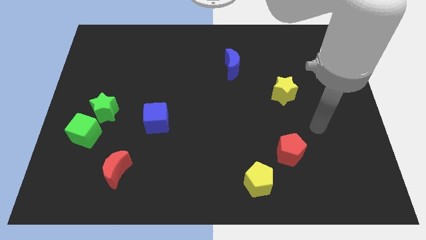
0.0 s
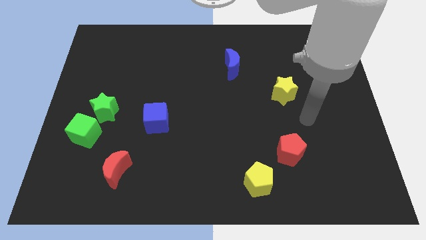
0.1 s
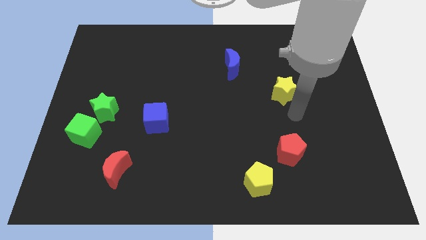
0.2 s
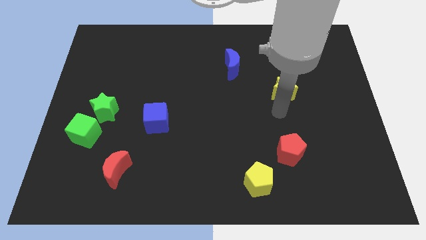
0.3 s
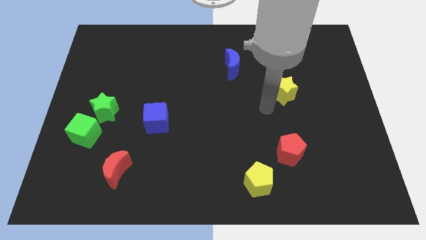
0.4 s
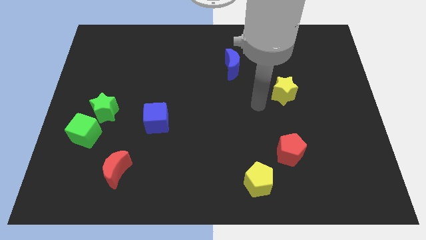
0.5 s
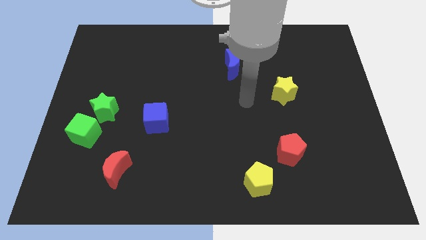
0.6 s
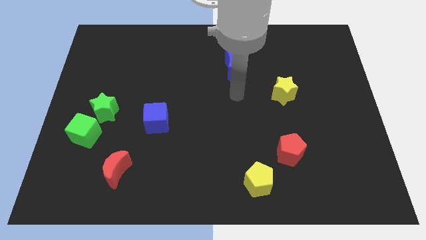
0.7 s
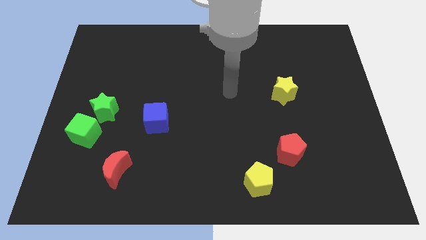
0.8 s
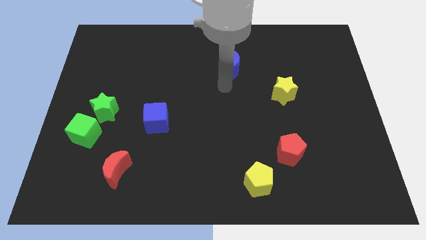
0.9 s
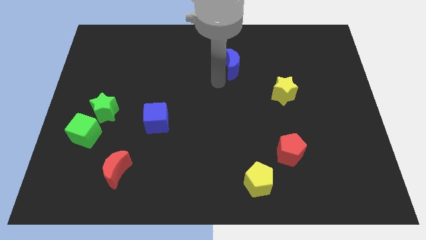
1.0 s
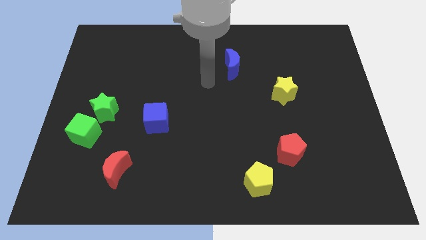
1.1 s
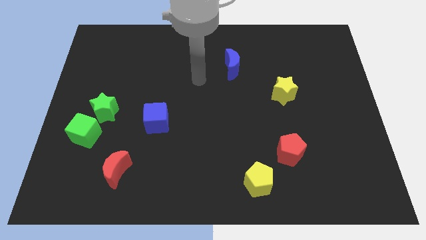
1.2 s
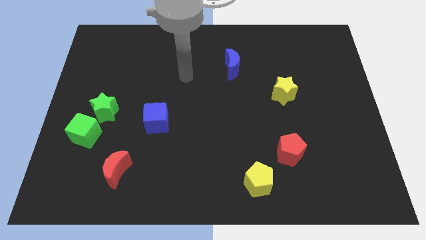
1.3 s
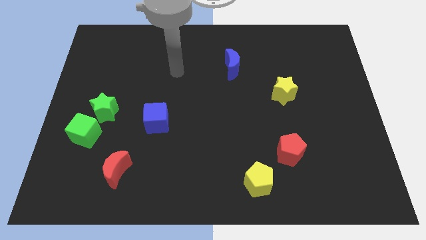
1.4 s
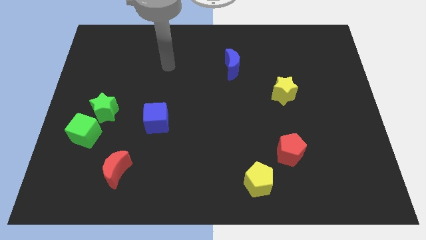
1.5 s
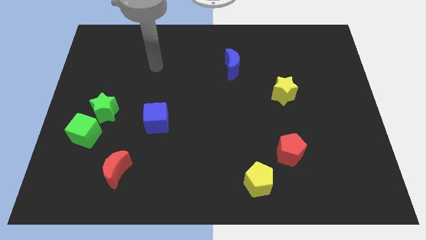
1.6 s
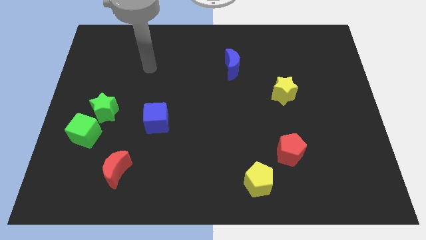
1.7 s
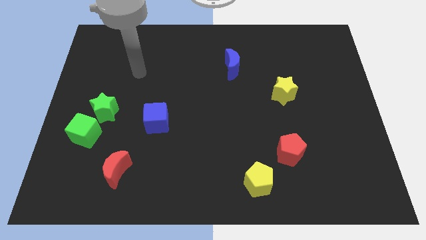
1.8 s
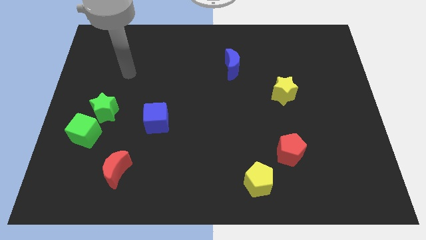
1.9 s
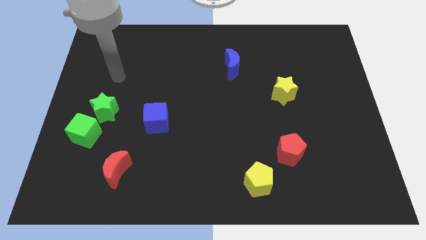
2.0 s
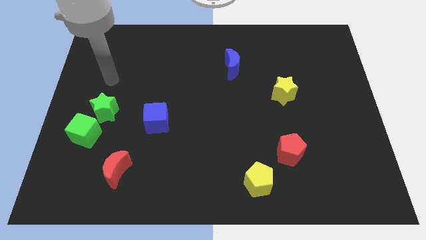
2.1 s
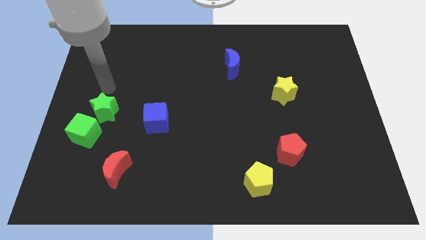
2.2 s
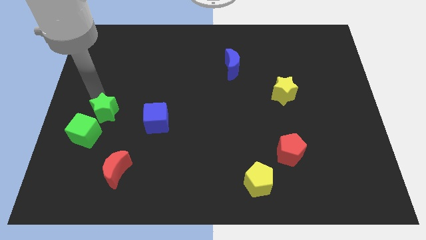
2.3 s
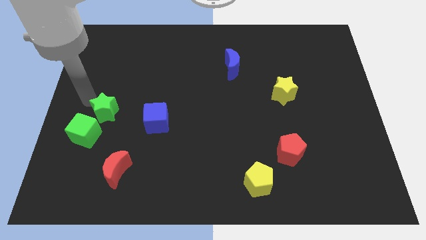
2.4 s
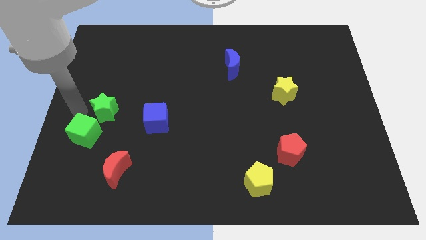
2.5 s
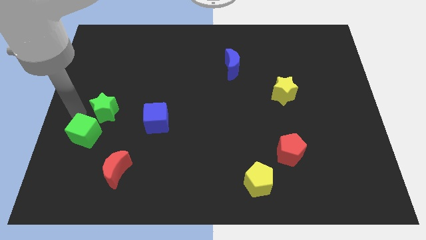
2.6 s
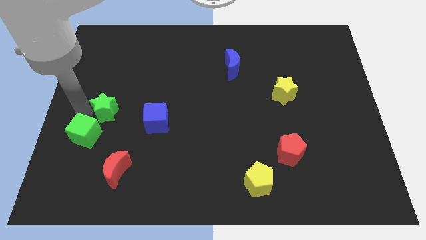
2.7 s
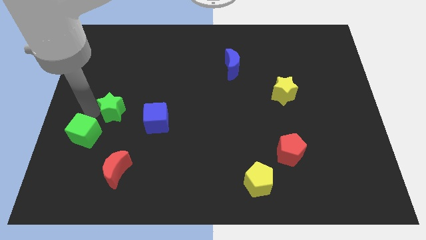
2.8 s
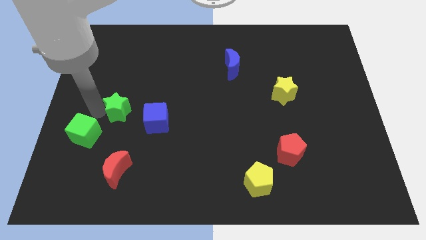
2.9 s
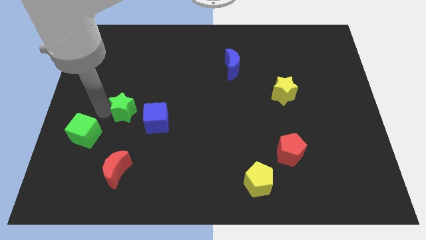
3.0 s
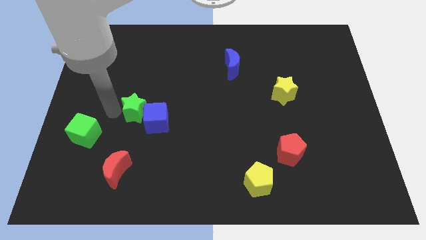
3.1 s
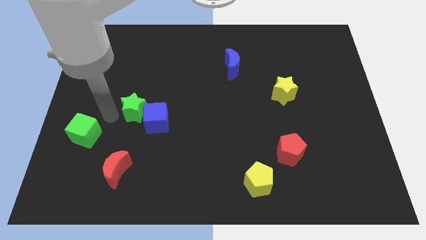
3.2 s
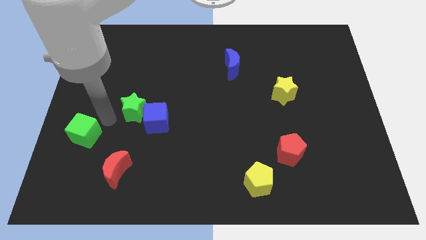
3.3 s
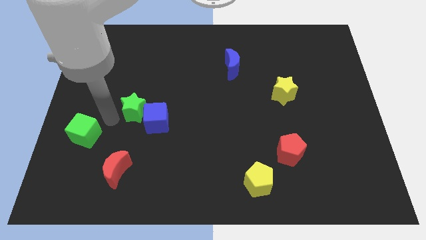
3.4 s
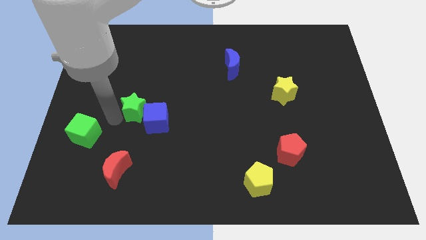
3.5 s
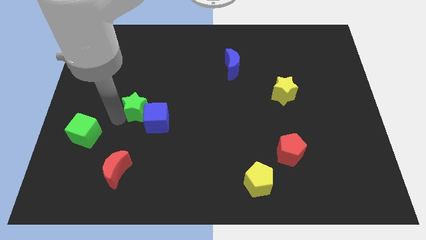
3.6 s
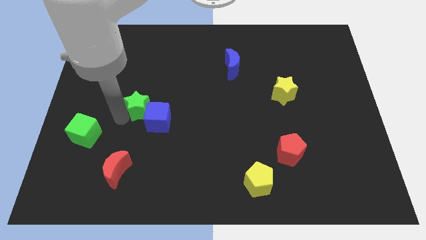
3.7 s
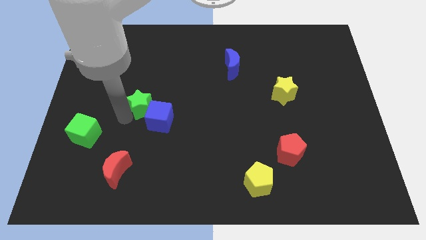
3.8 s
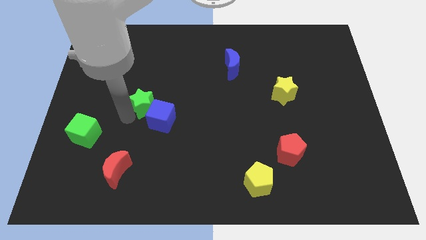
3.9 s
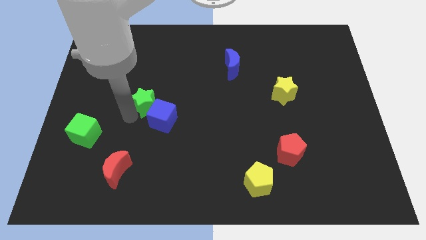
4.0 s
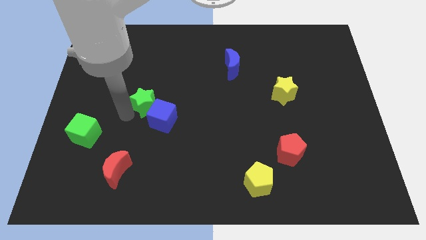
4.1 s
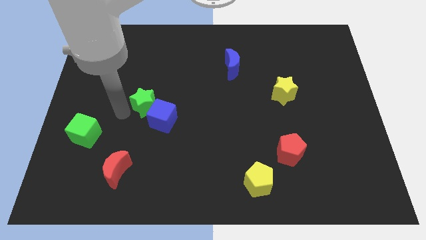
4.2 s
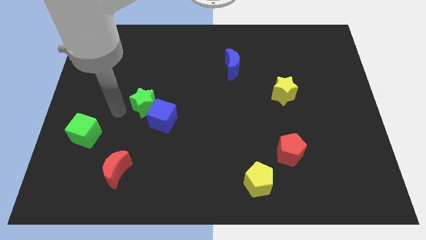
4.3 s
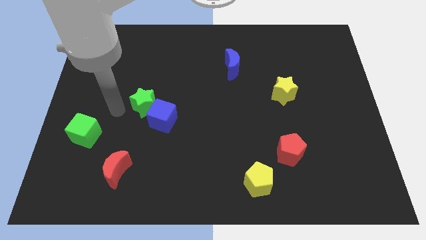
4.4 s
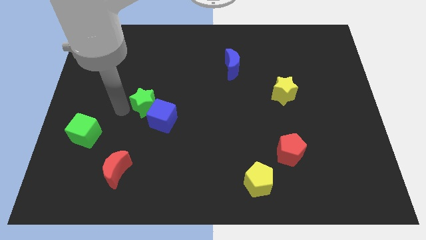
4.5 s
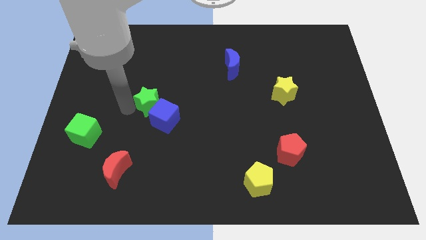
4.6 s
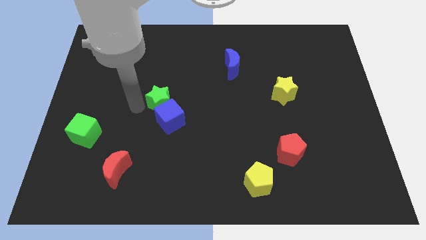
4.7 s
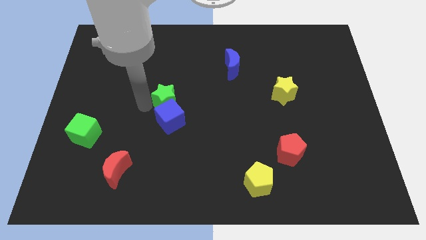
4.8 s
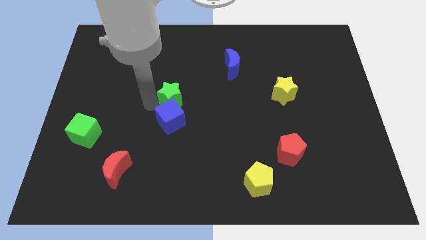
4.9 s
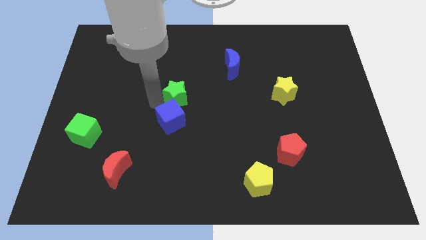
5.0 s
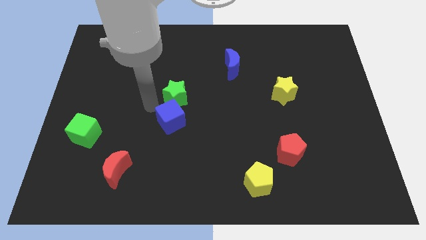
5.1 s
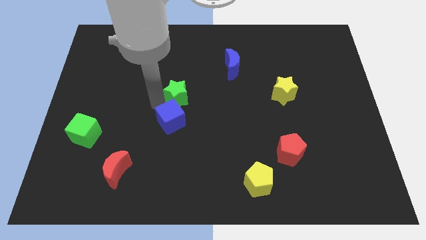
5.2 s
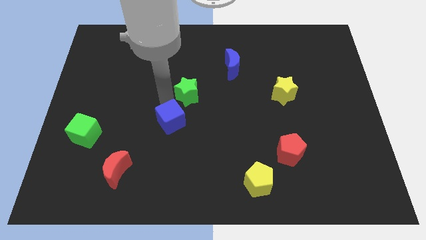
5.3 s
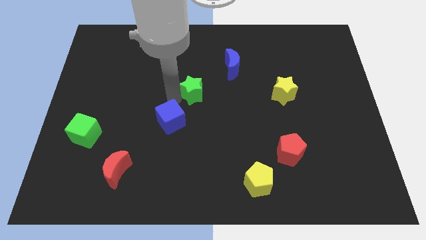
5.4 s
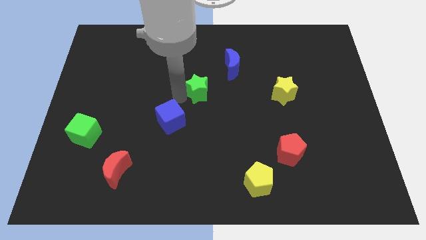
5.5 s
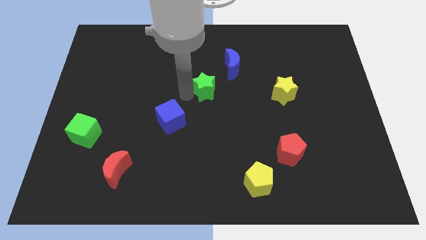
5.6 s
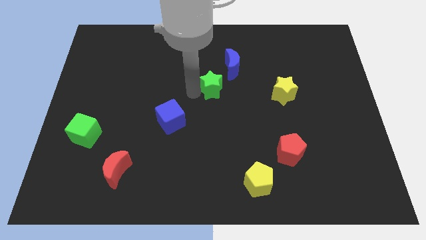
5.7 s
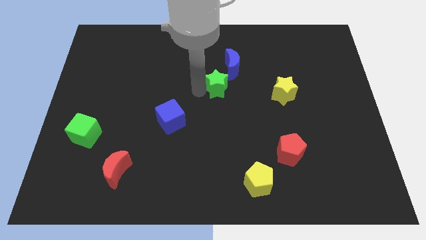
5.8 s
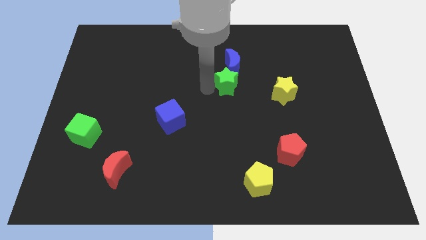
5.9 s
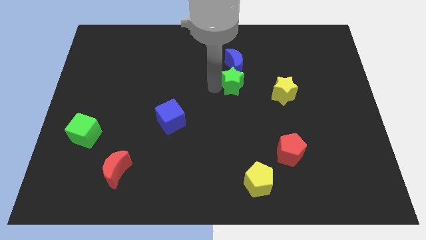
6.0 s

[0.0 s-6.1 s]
push the green star to the bottom right of the blue moon

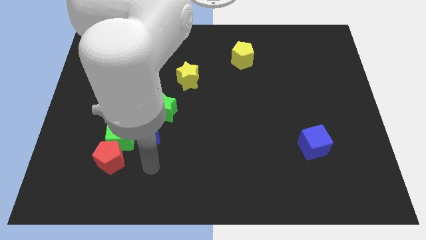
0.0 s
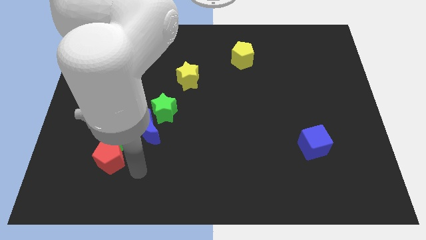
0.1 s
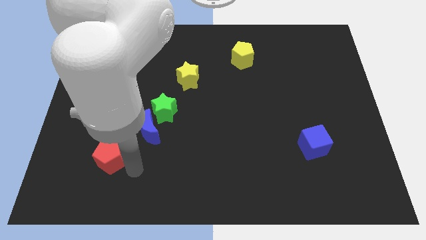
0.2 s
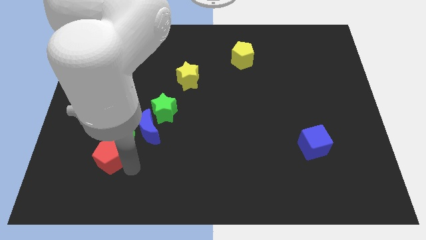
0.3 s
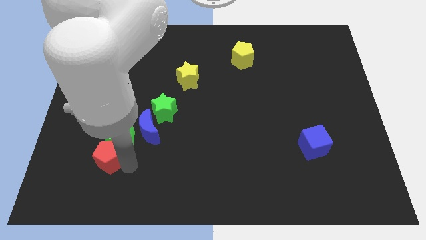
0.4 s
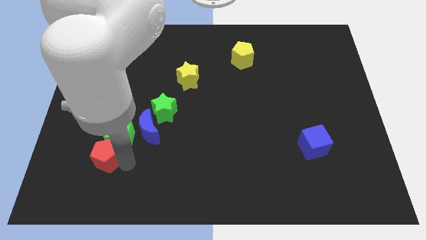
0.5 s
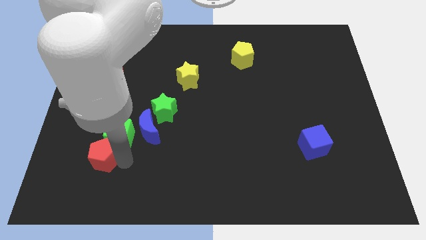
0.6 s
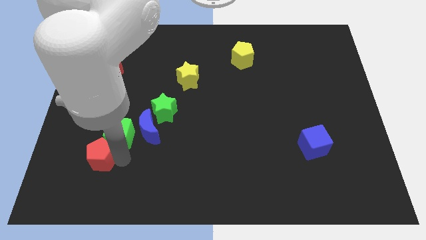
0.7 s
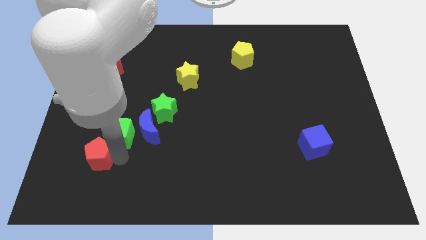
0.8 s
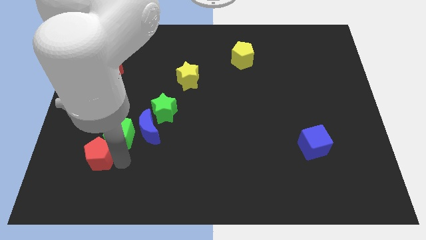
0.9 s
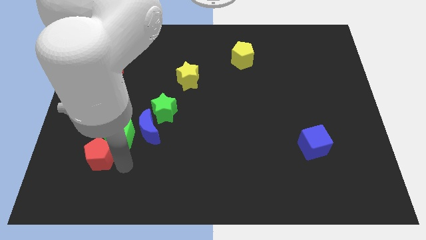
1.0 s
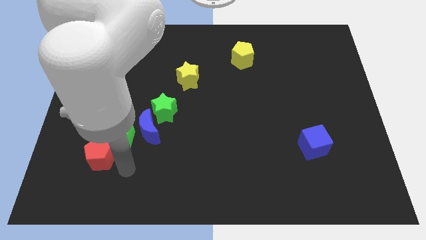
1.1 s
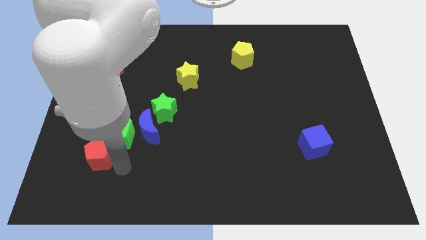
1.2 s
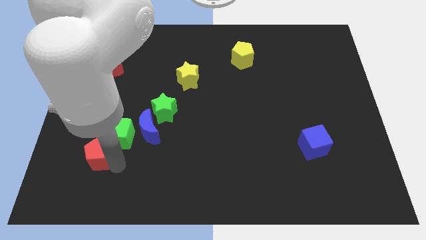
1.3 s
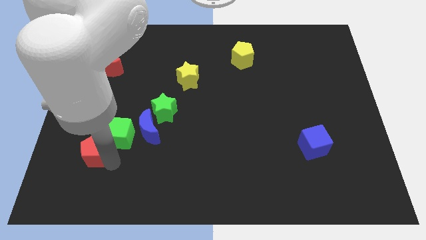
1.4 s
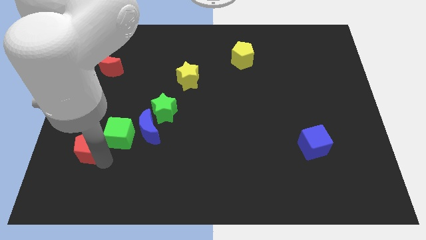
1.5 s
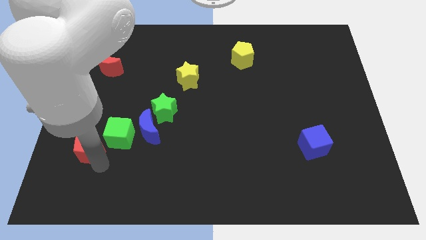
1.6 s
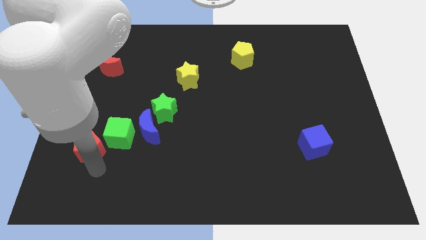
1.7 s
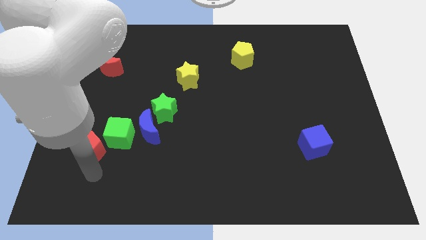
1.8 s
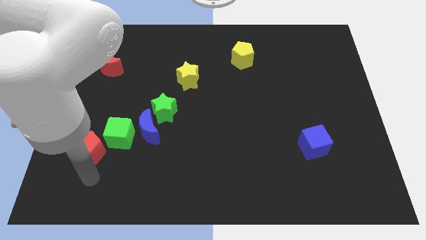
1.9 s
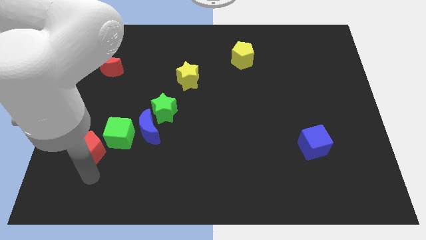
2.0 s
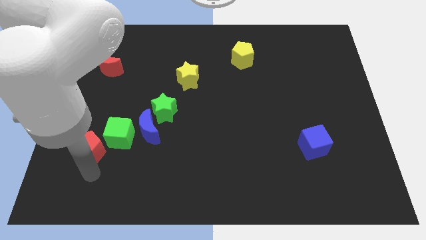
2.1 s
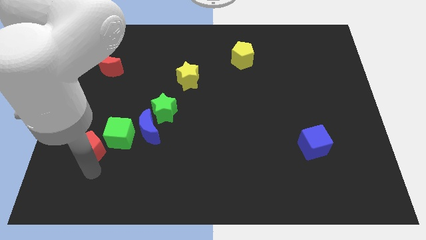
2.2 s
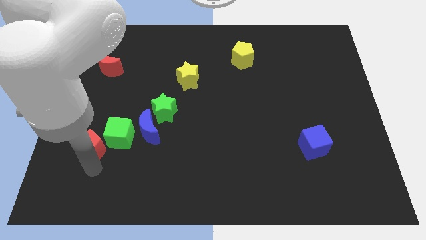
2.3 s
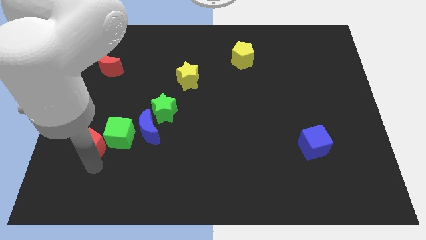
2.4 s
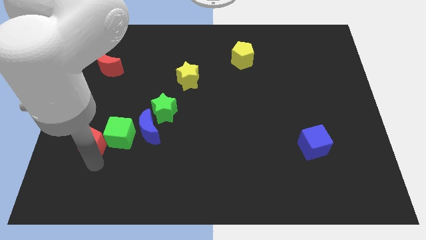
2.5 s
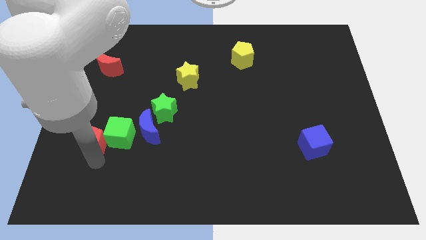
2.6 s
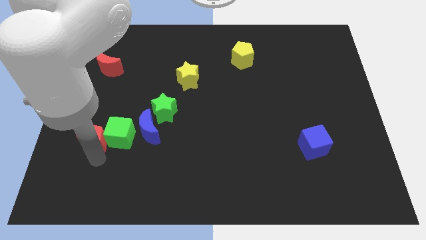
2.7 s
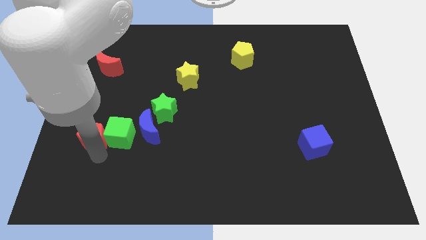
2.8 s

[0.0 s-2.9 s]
put the red pentagon to the top left of the green cube
